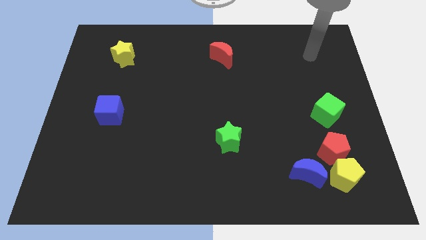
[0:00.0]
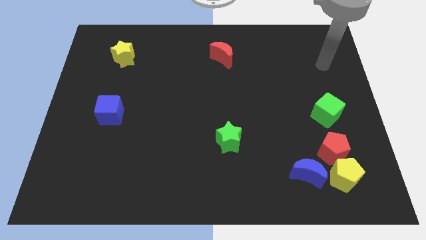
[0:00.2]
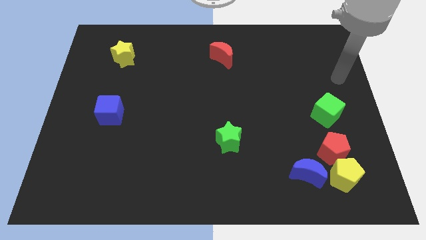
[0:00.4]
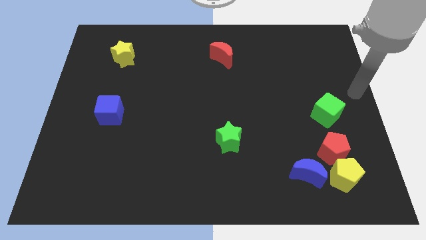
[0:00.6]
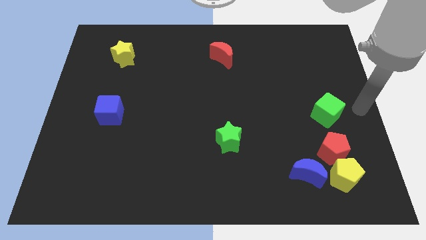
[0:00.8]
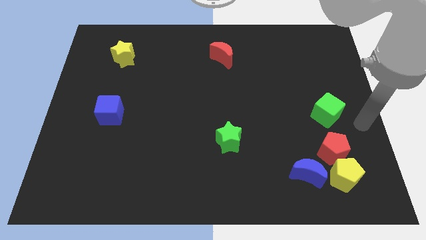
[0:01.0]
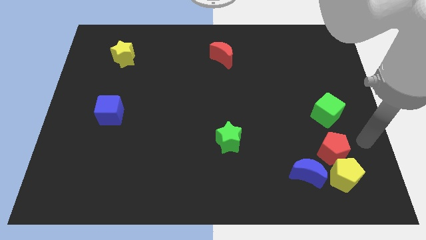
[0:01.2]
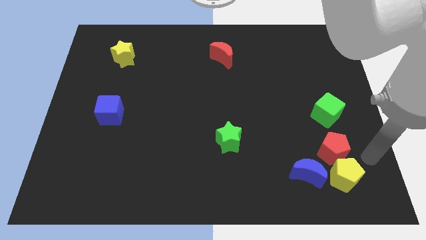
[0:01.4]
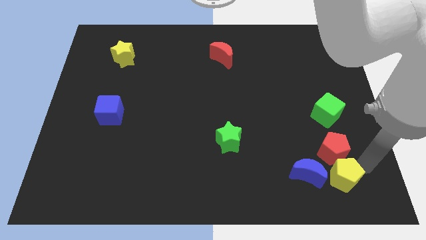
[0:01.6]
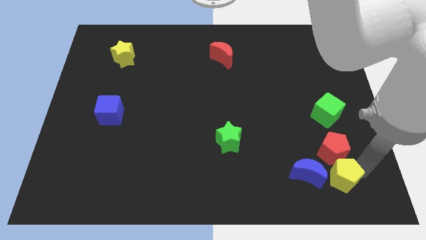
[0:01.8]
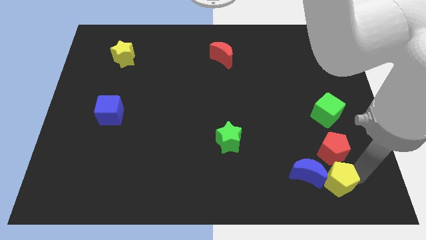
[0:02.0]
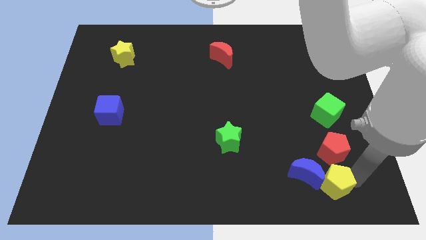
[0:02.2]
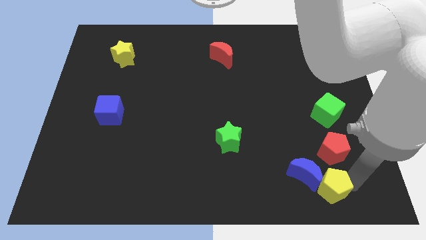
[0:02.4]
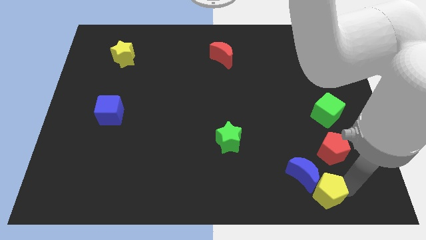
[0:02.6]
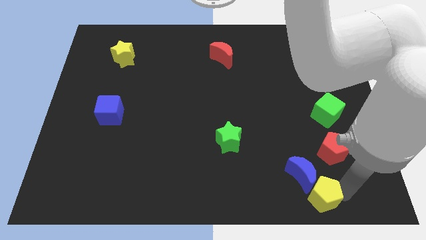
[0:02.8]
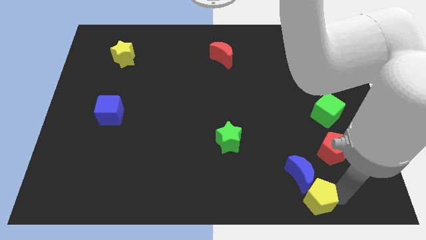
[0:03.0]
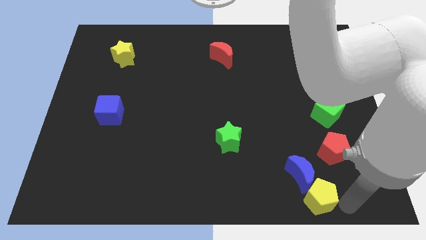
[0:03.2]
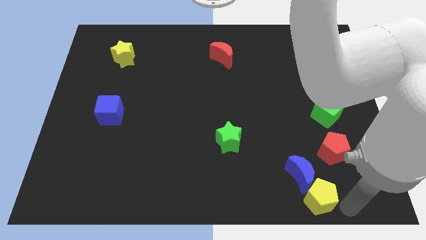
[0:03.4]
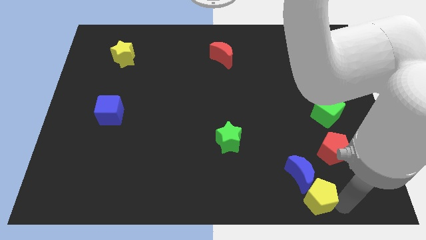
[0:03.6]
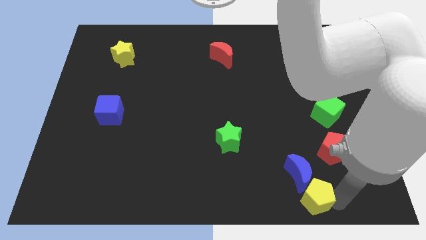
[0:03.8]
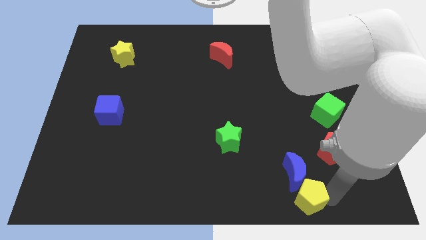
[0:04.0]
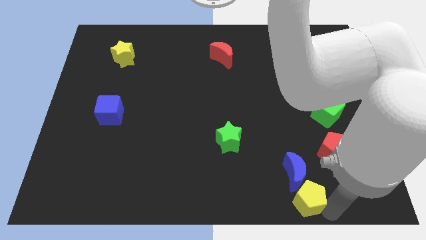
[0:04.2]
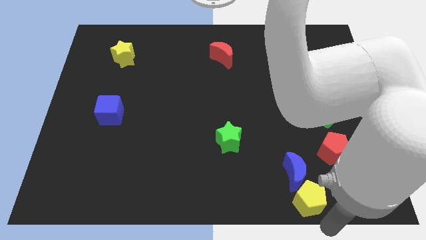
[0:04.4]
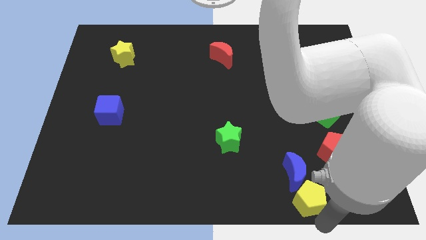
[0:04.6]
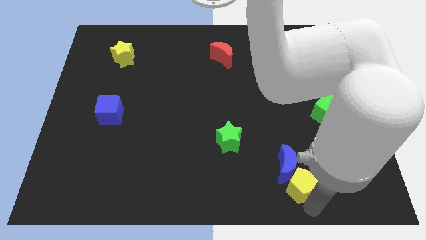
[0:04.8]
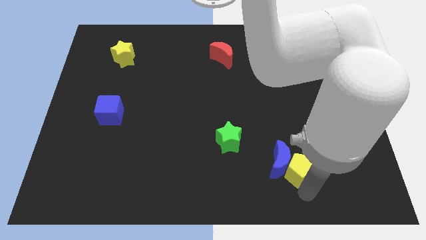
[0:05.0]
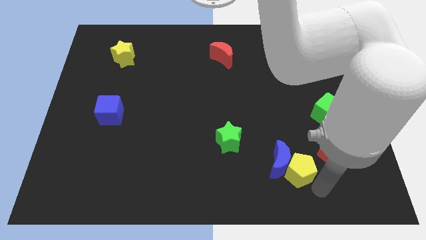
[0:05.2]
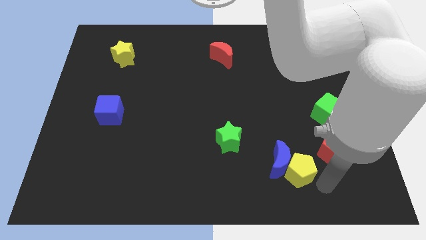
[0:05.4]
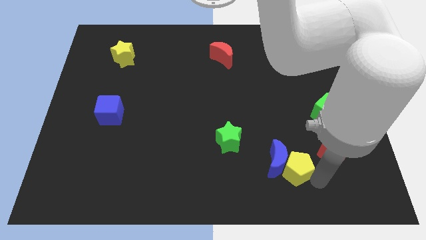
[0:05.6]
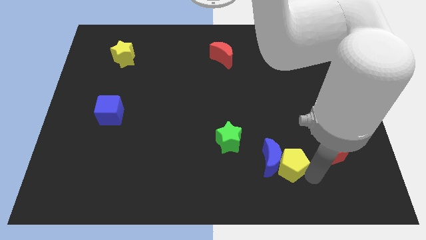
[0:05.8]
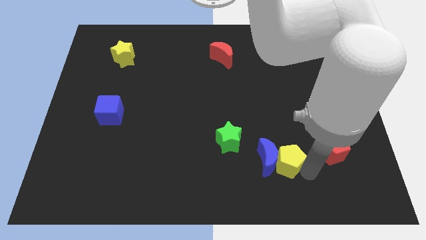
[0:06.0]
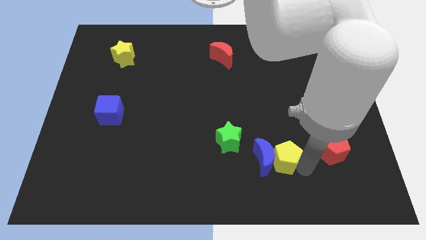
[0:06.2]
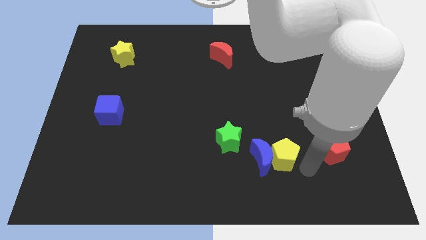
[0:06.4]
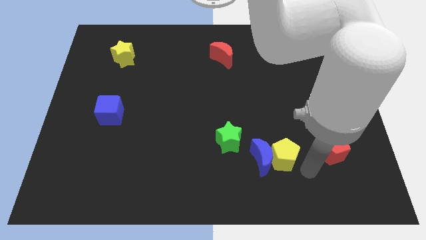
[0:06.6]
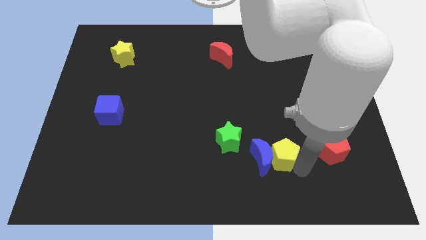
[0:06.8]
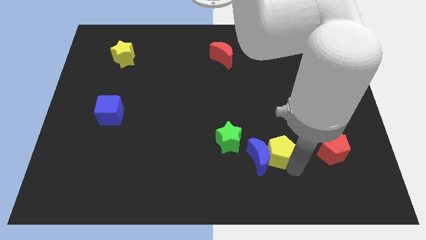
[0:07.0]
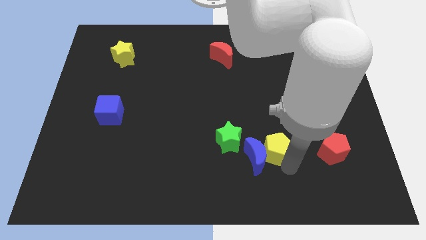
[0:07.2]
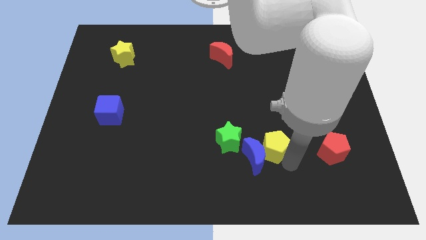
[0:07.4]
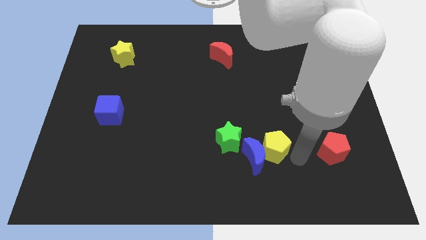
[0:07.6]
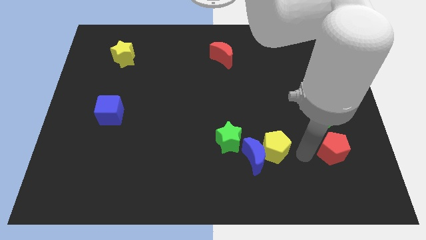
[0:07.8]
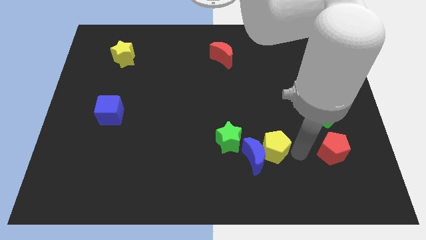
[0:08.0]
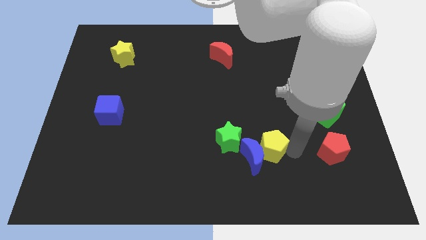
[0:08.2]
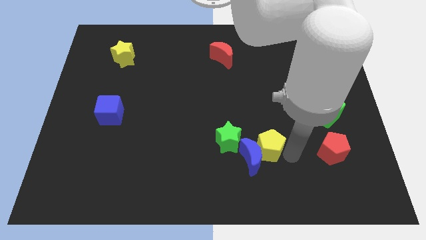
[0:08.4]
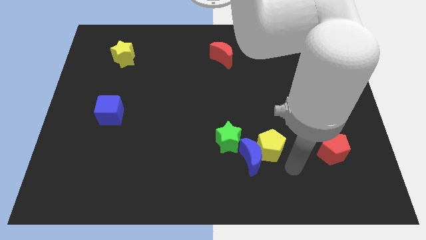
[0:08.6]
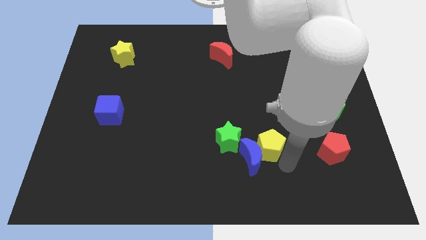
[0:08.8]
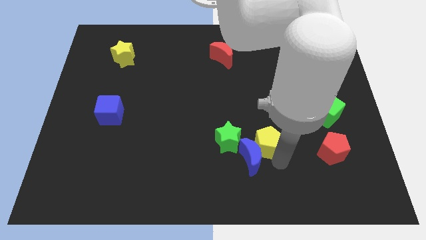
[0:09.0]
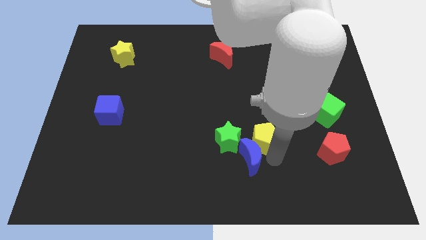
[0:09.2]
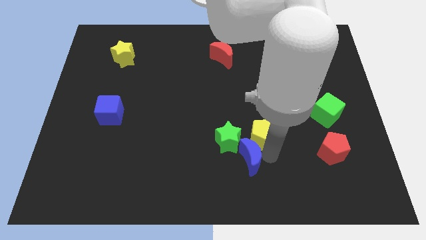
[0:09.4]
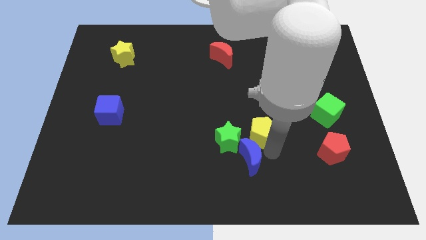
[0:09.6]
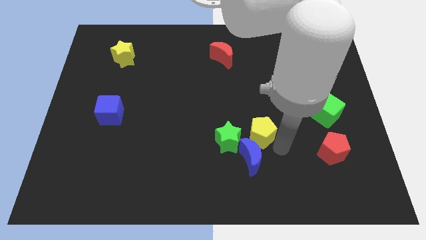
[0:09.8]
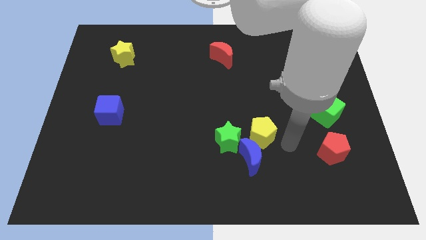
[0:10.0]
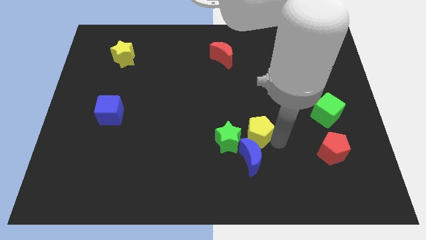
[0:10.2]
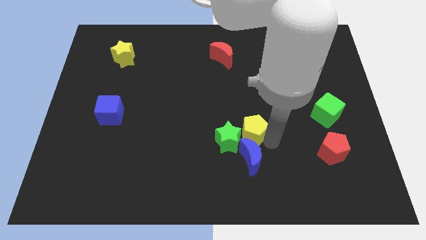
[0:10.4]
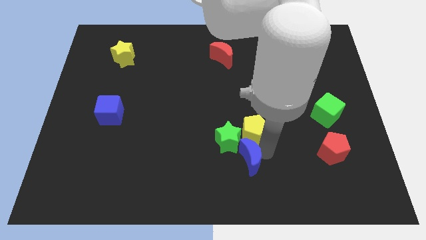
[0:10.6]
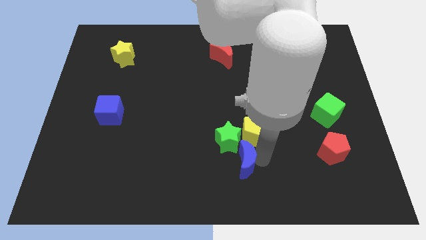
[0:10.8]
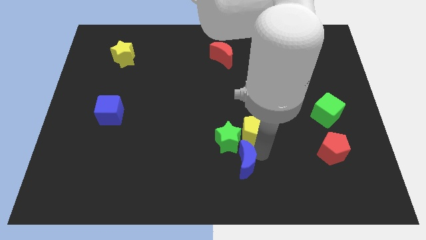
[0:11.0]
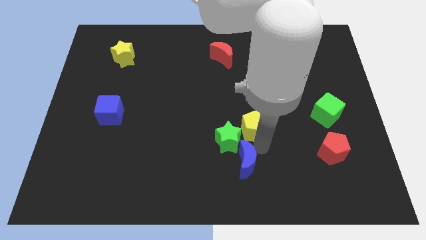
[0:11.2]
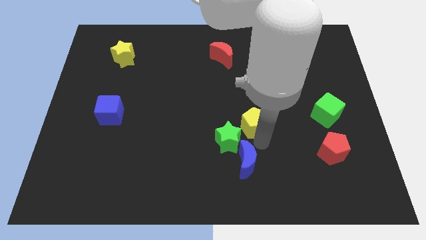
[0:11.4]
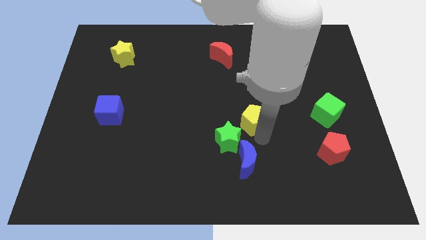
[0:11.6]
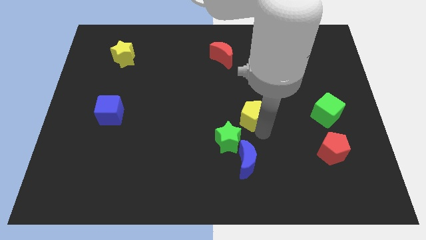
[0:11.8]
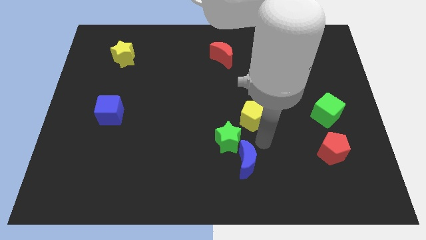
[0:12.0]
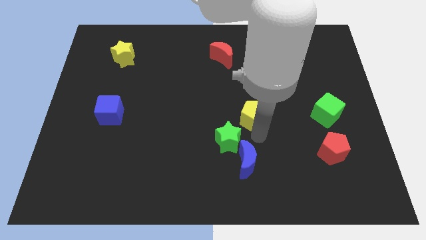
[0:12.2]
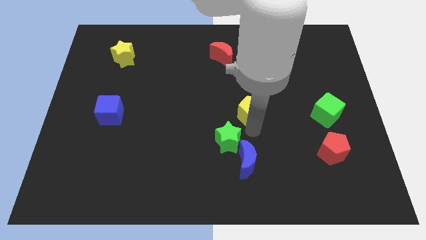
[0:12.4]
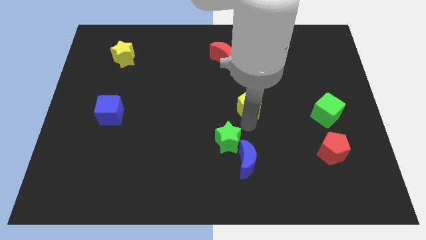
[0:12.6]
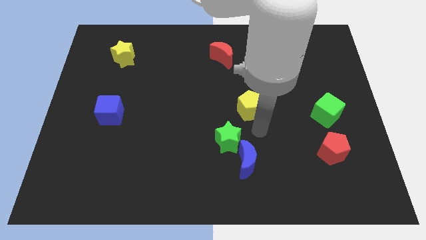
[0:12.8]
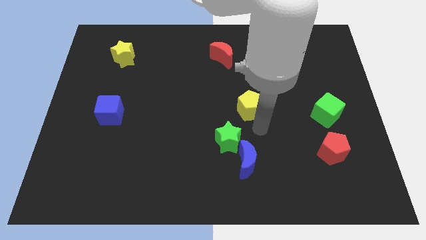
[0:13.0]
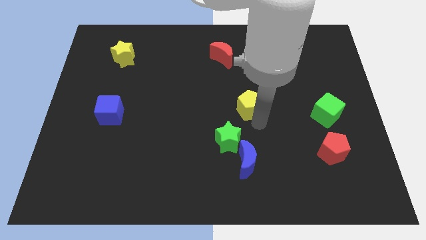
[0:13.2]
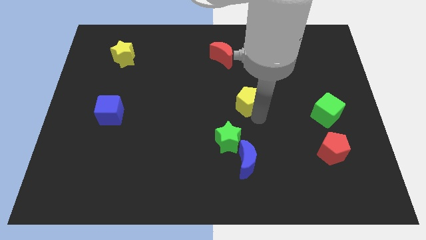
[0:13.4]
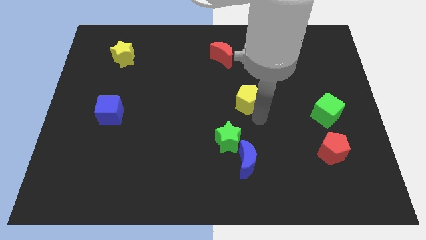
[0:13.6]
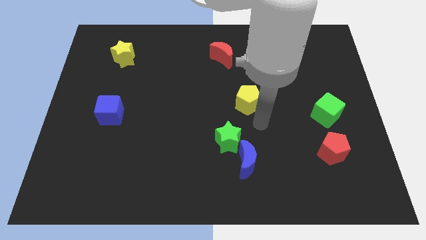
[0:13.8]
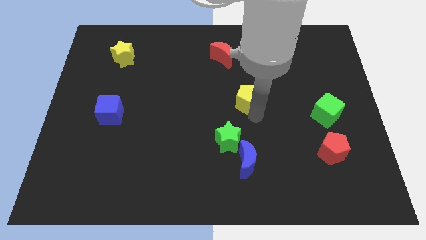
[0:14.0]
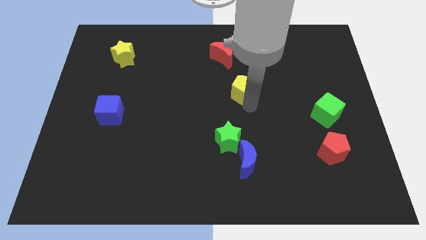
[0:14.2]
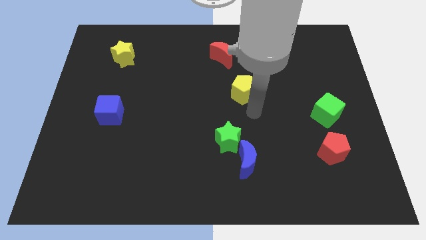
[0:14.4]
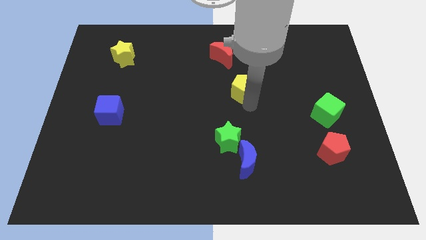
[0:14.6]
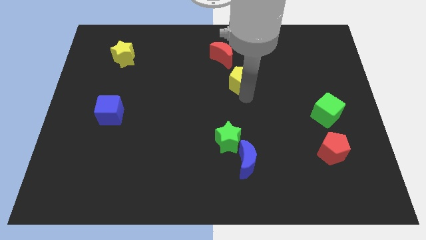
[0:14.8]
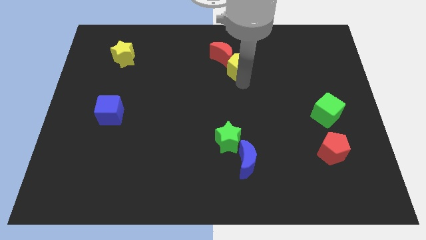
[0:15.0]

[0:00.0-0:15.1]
move the yellow pentagon next to the red moon
